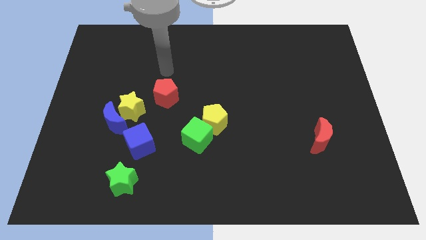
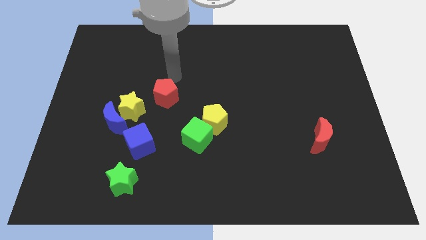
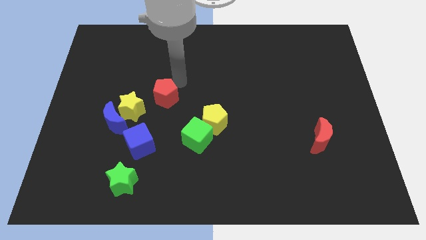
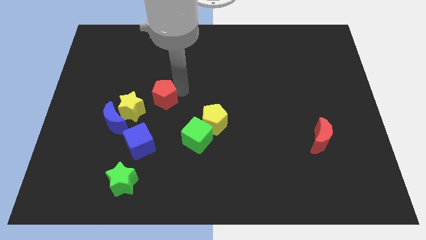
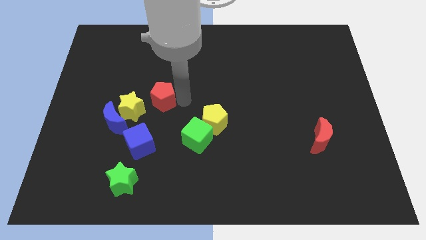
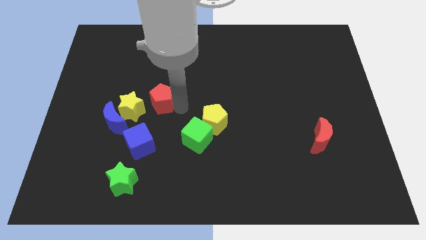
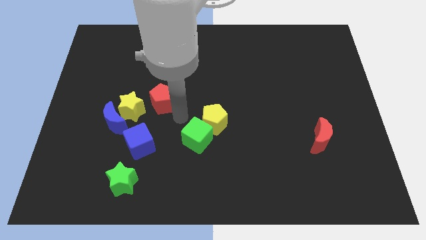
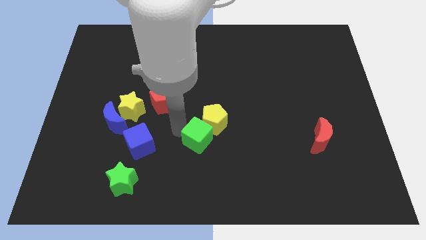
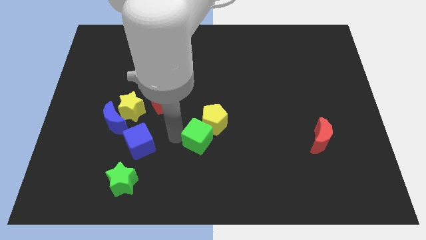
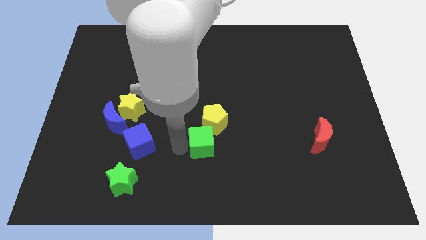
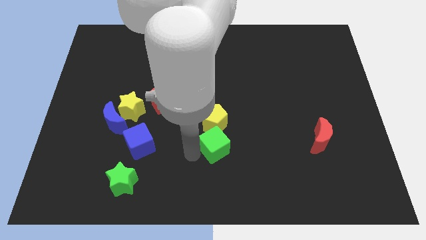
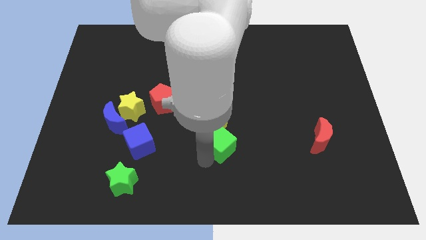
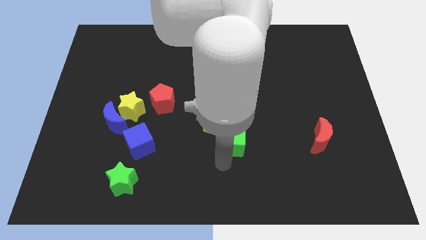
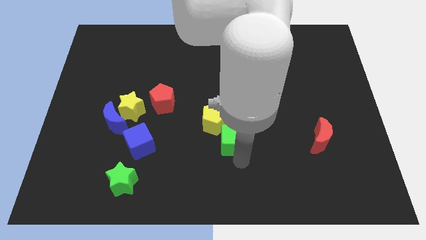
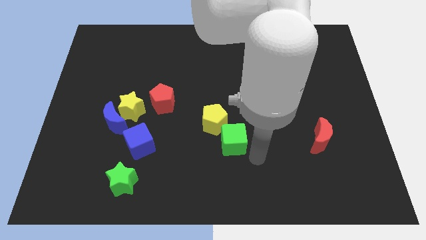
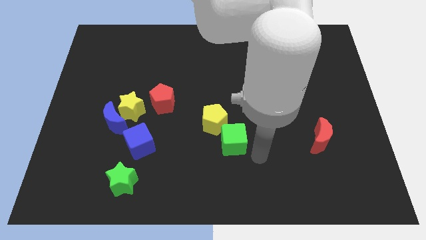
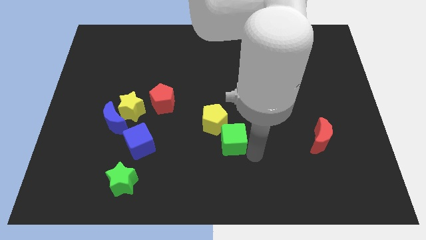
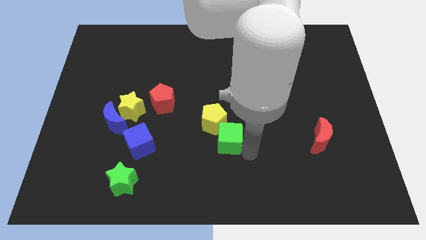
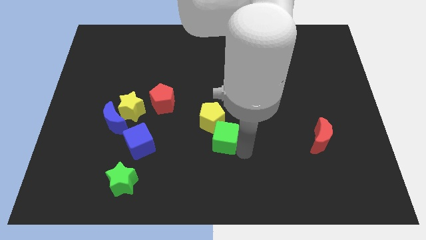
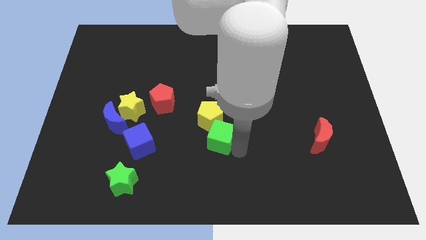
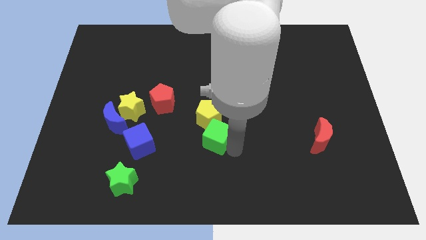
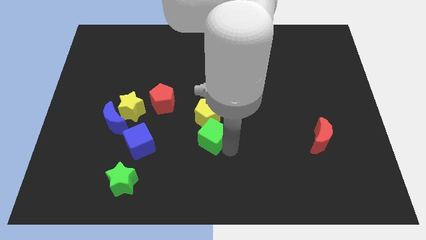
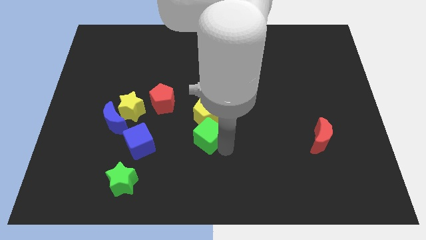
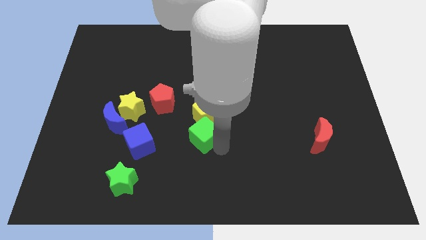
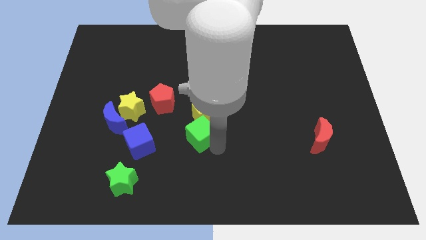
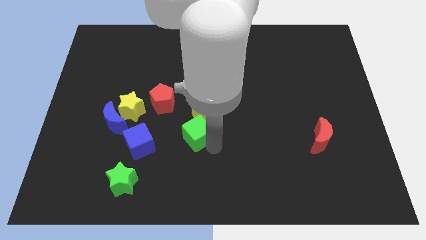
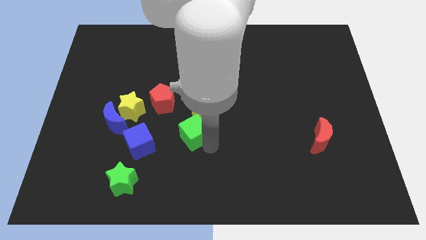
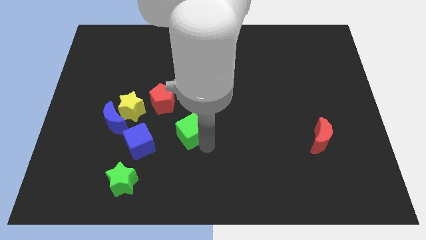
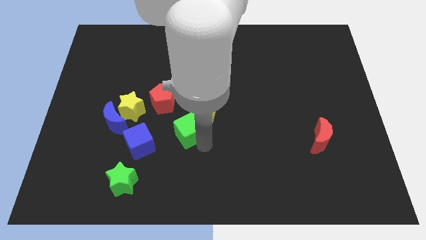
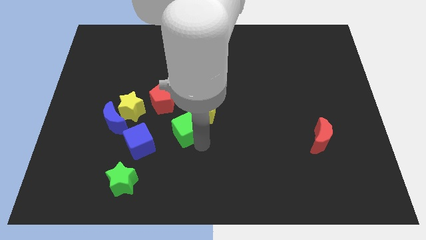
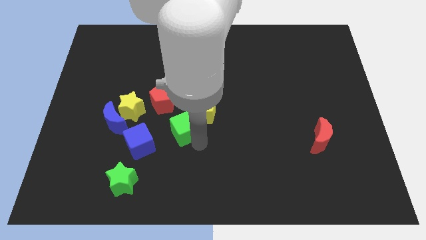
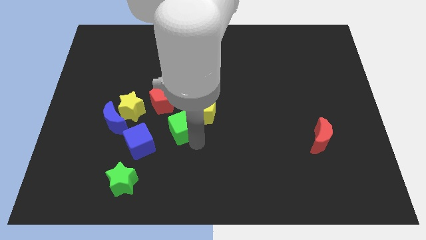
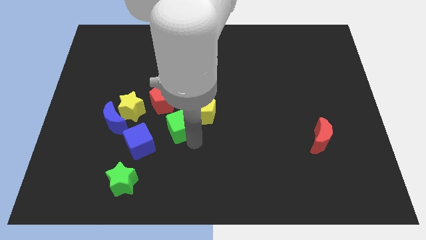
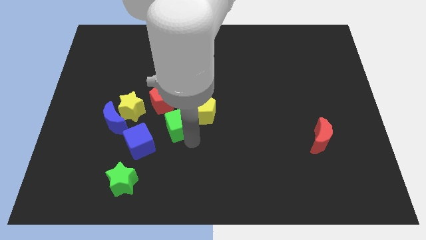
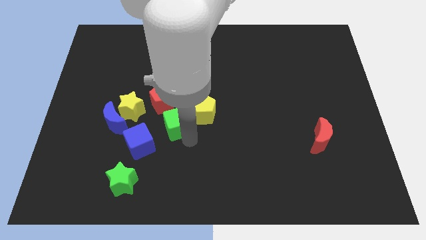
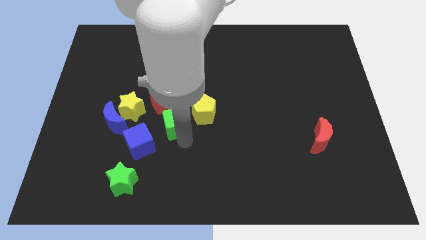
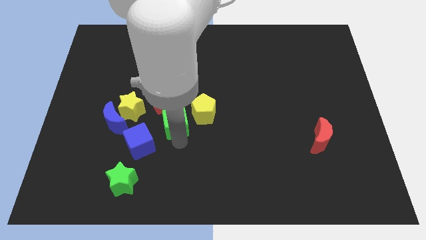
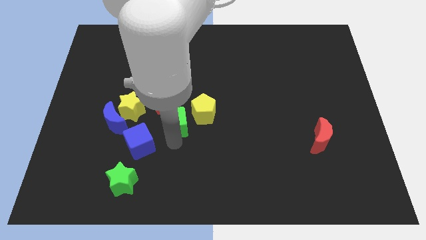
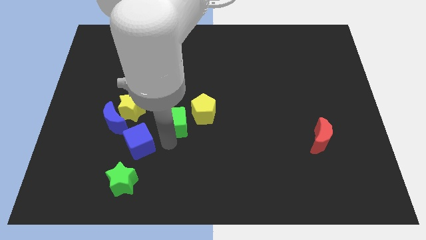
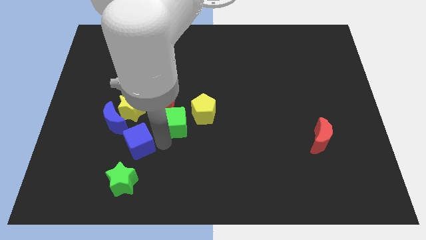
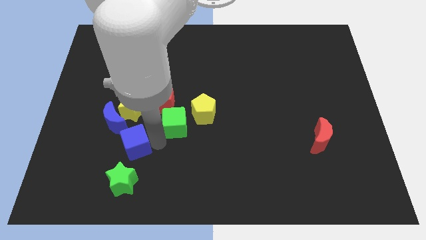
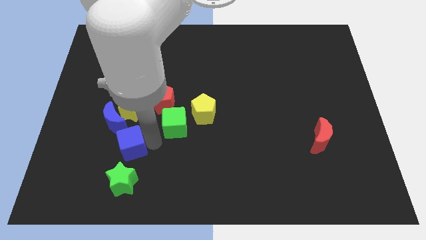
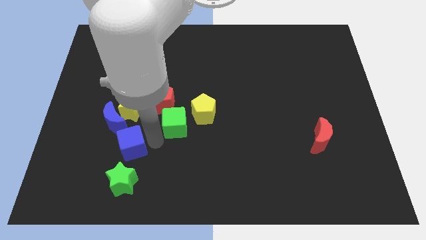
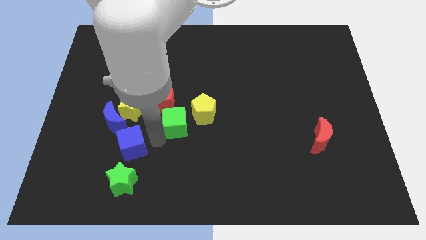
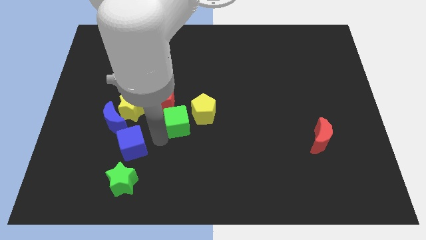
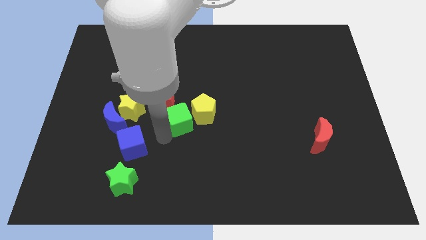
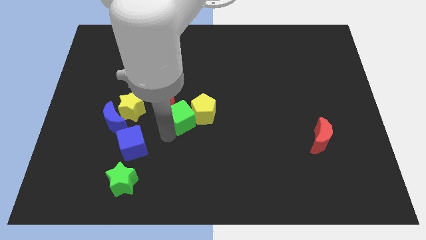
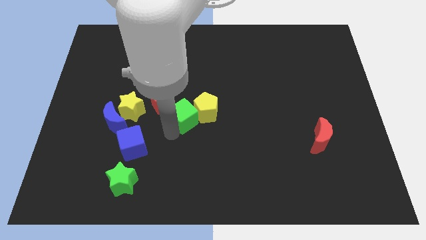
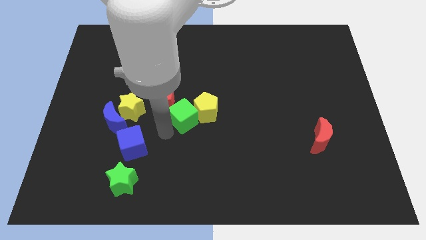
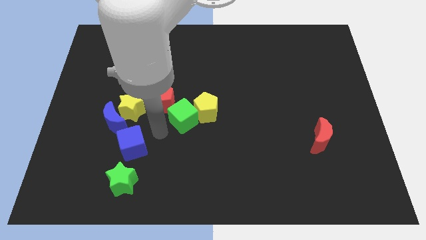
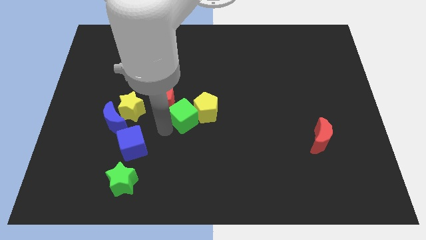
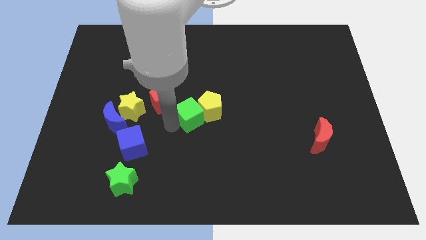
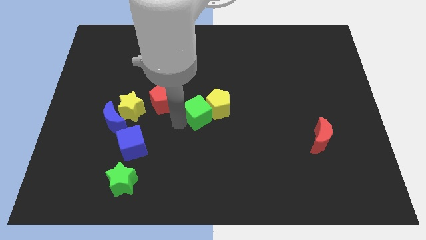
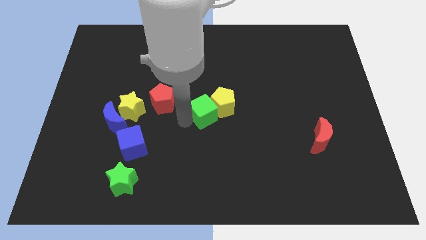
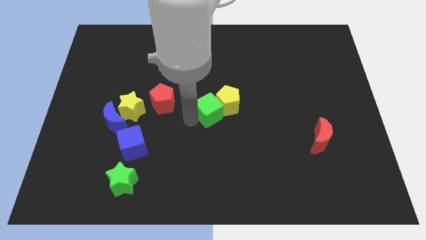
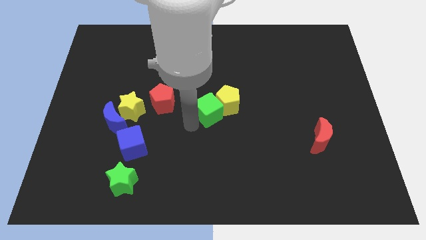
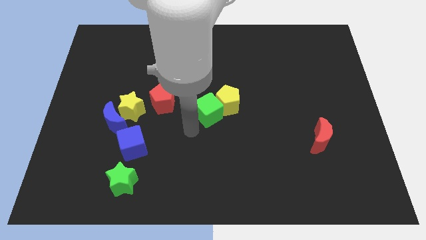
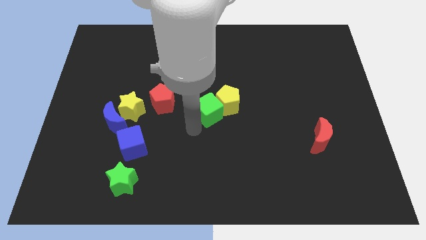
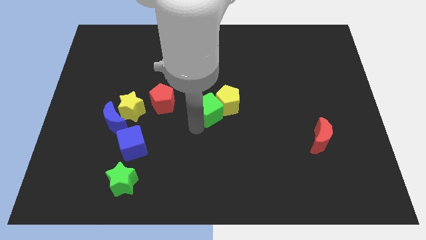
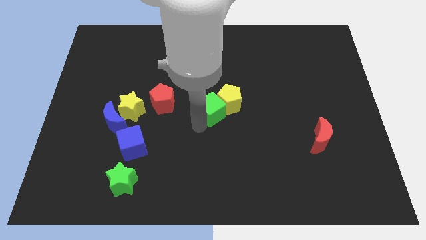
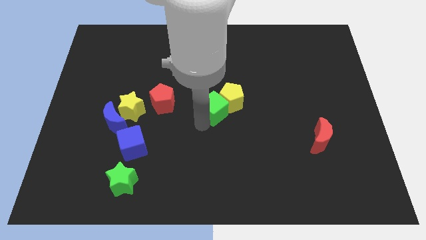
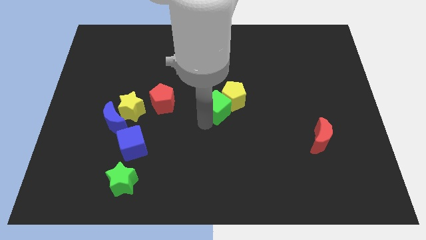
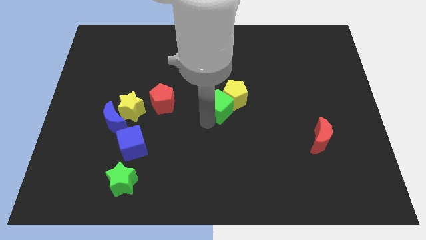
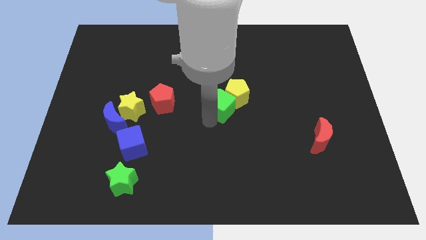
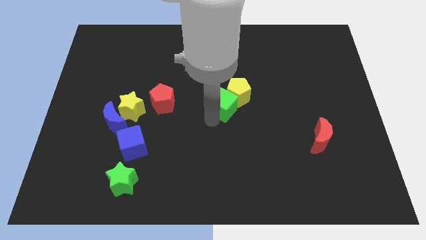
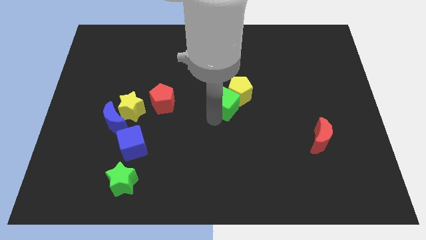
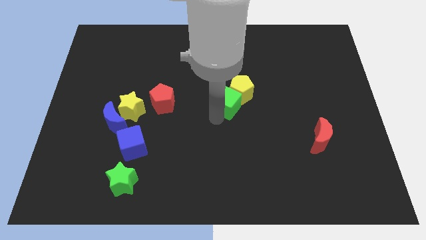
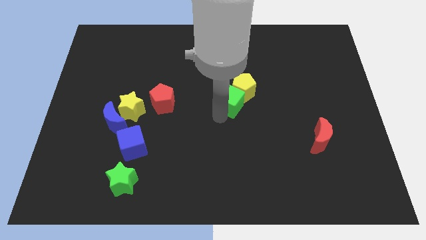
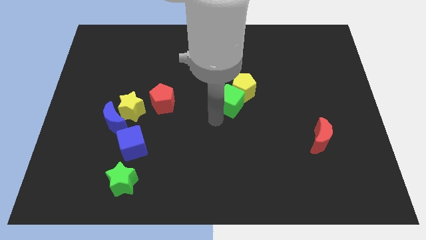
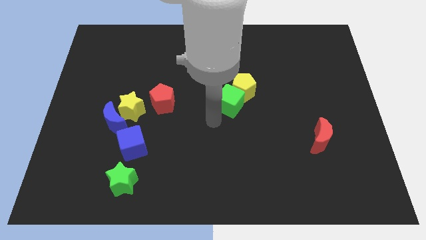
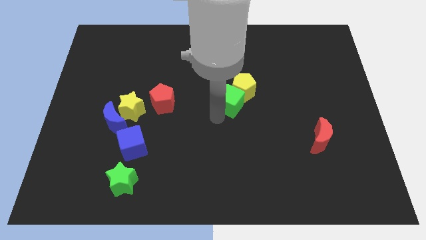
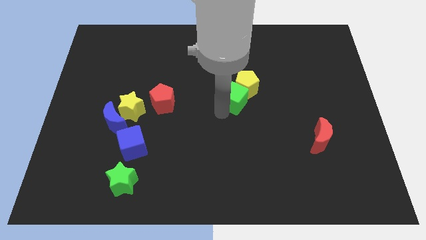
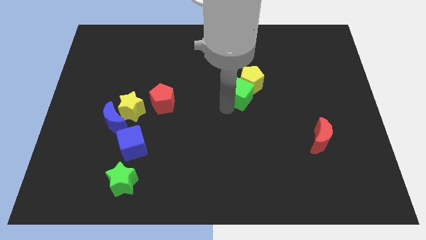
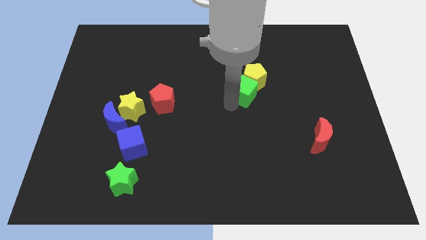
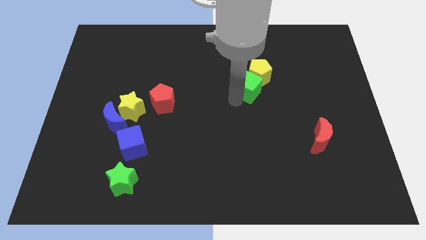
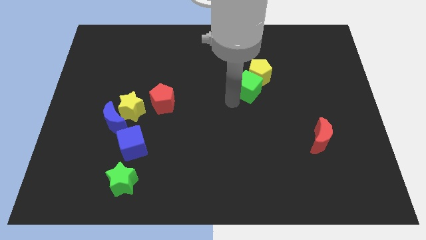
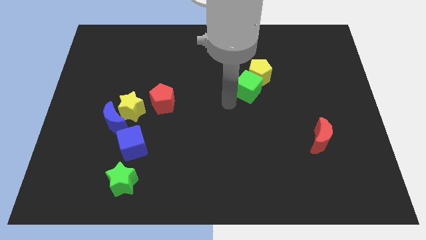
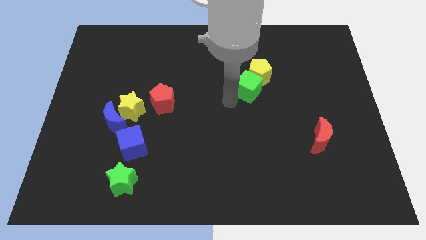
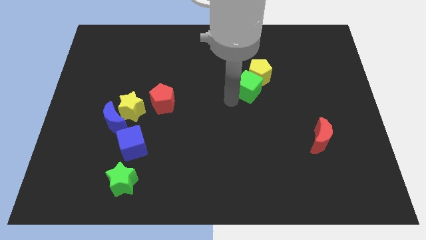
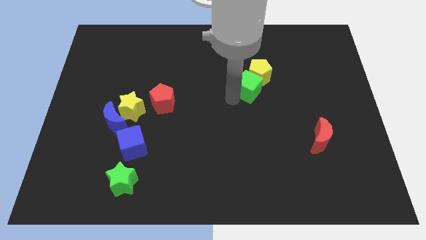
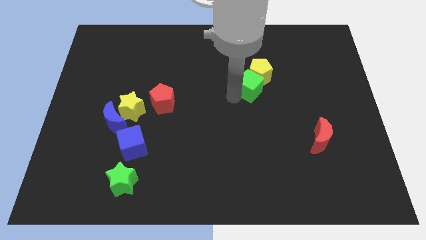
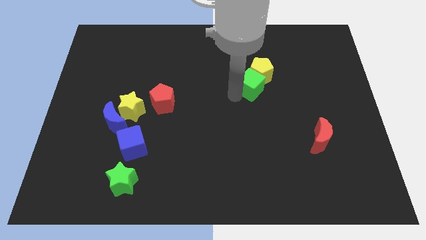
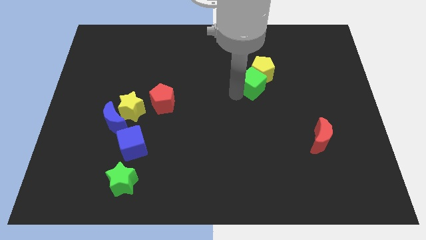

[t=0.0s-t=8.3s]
push the green cube upwards and right diagonally
